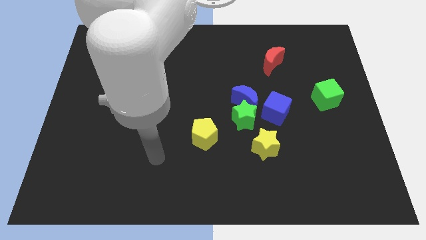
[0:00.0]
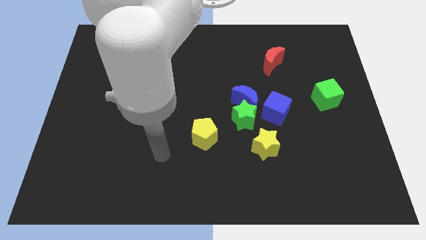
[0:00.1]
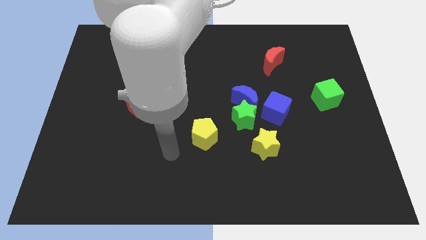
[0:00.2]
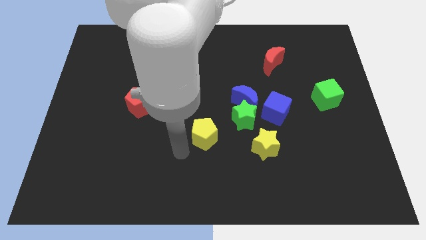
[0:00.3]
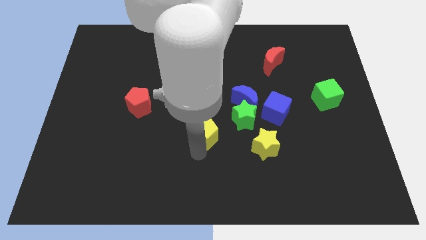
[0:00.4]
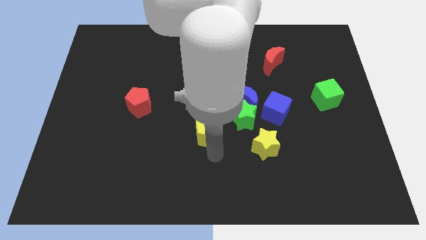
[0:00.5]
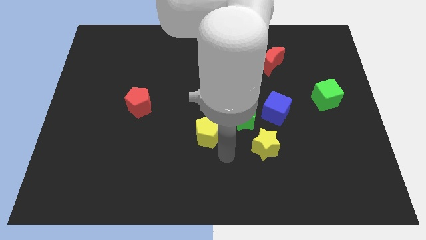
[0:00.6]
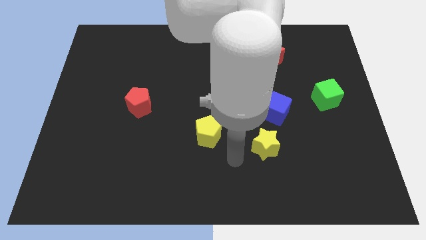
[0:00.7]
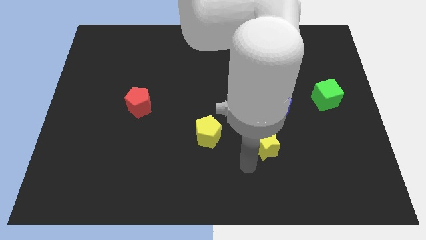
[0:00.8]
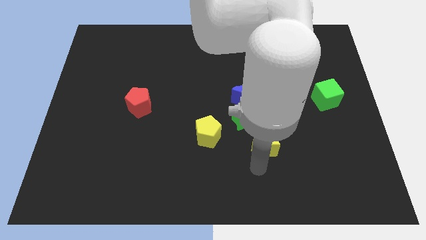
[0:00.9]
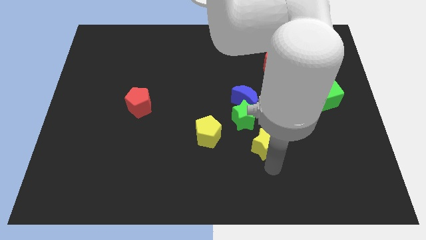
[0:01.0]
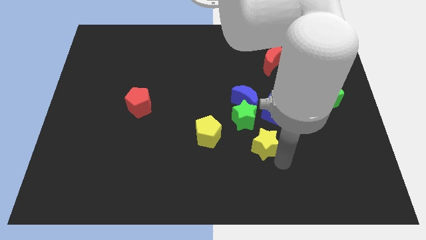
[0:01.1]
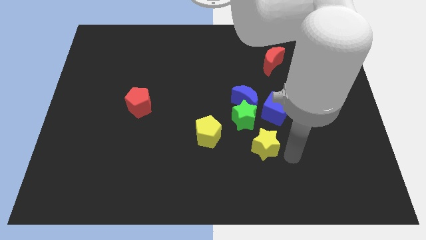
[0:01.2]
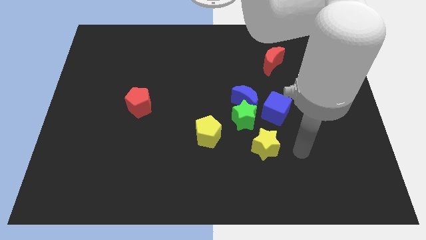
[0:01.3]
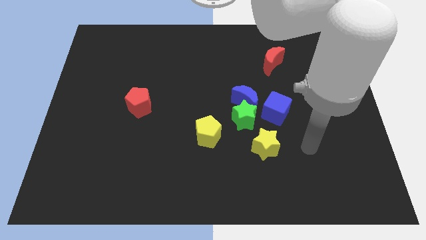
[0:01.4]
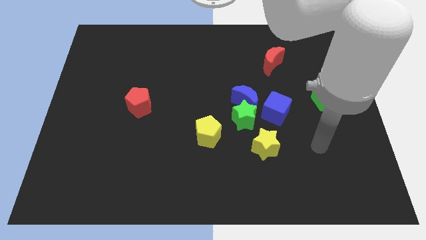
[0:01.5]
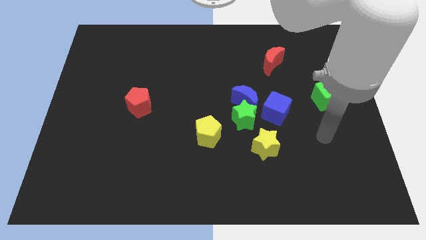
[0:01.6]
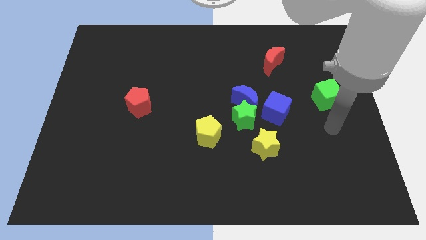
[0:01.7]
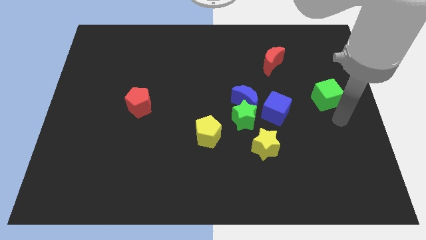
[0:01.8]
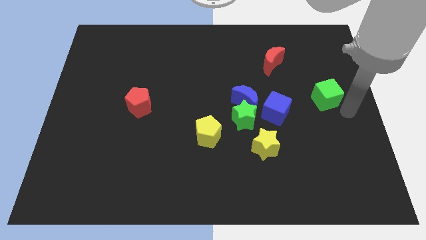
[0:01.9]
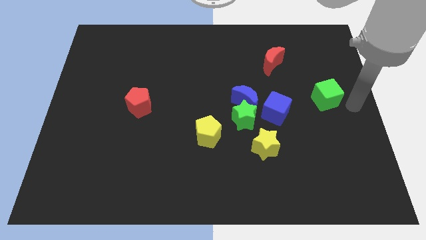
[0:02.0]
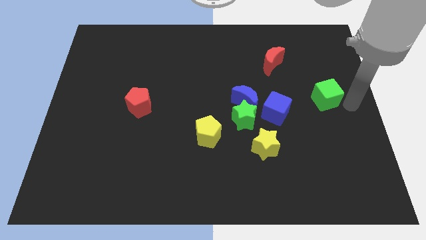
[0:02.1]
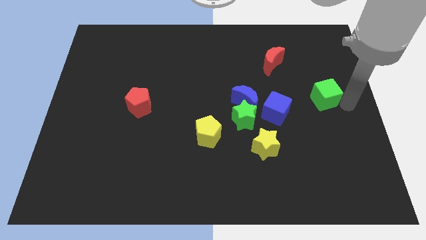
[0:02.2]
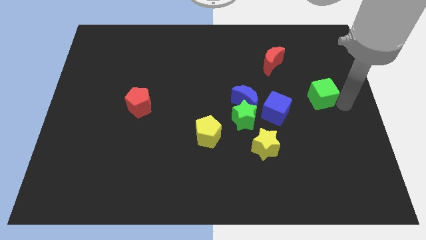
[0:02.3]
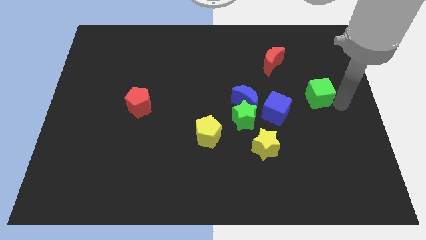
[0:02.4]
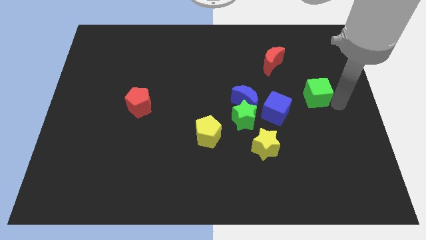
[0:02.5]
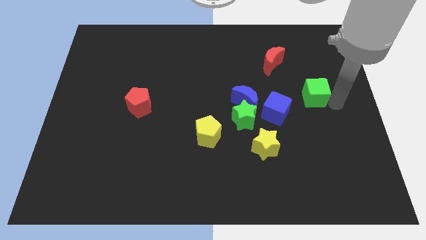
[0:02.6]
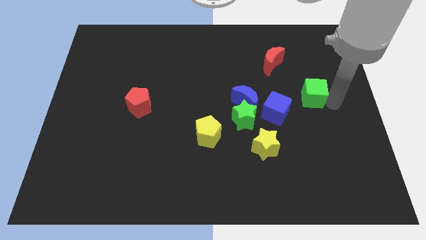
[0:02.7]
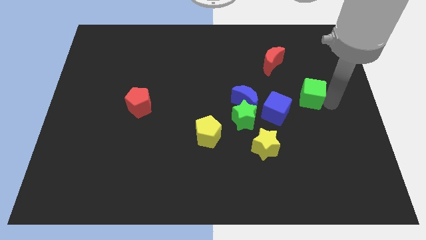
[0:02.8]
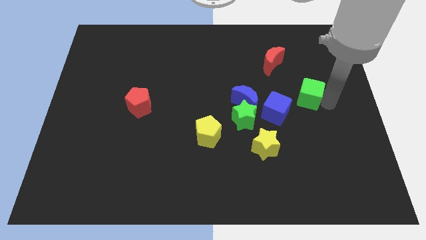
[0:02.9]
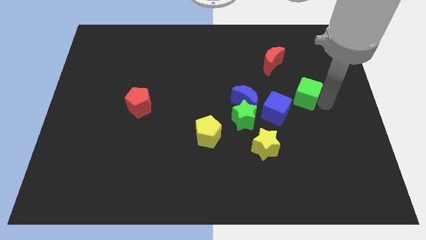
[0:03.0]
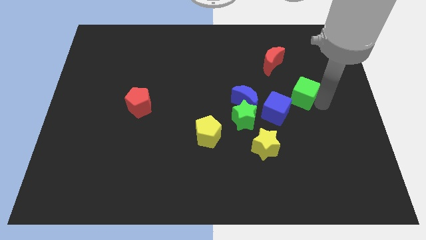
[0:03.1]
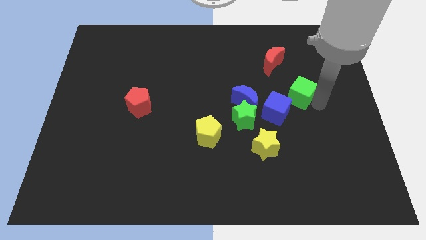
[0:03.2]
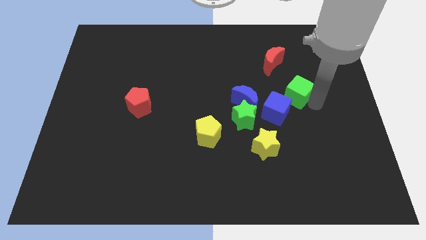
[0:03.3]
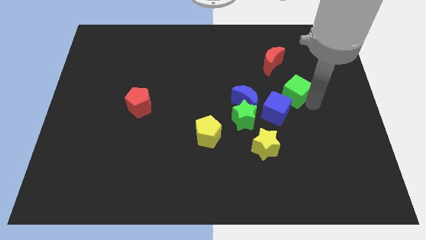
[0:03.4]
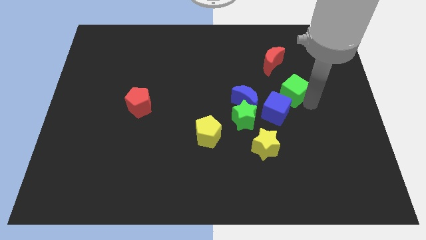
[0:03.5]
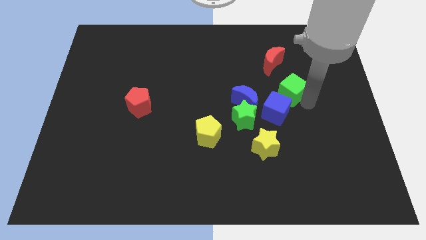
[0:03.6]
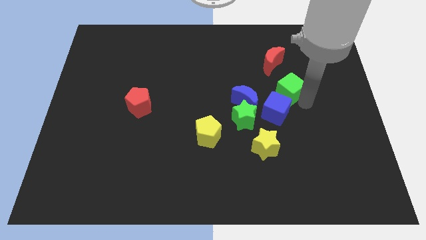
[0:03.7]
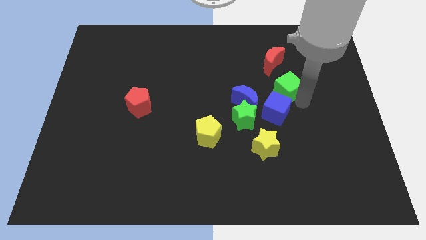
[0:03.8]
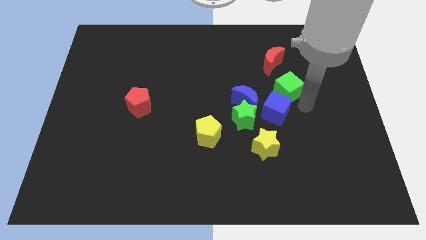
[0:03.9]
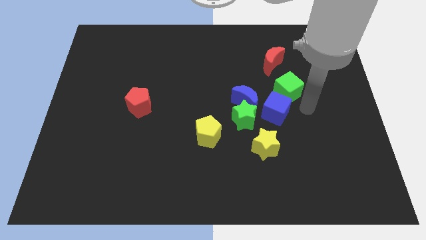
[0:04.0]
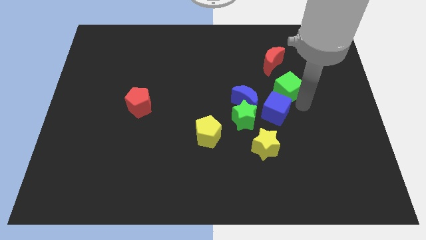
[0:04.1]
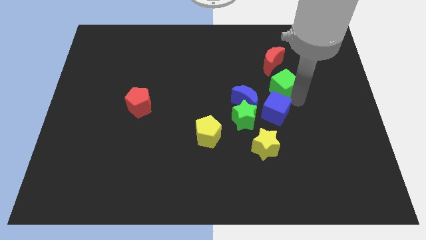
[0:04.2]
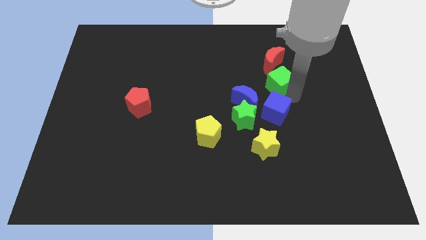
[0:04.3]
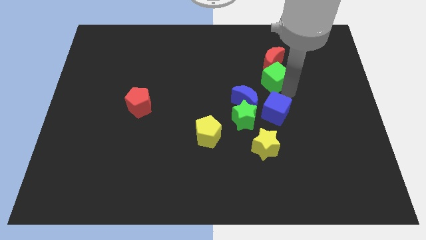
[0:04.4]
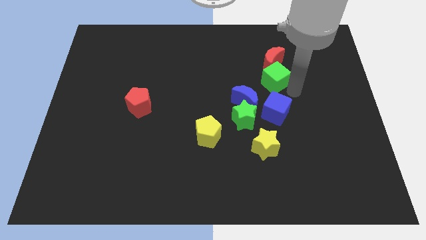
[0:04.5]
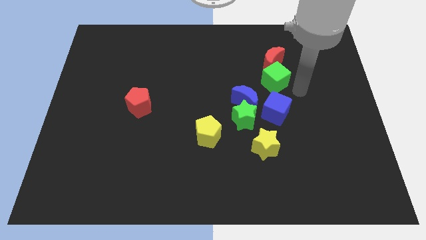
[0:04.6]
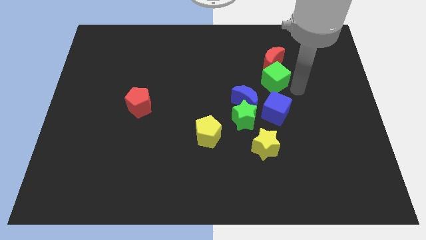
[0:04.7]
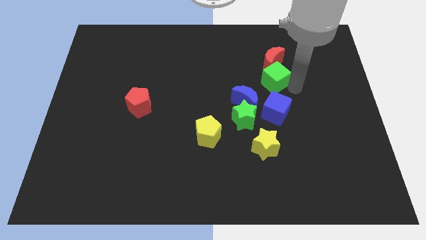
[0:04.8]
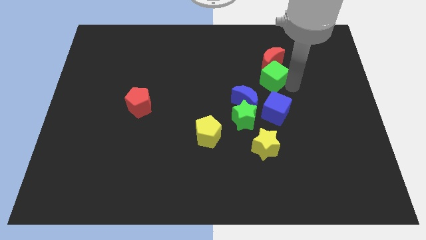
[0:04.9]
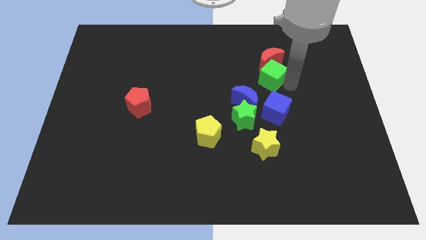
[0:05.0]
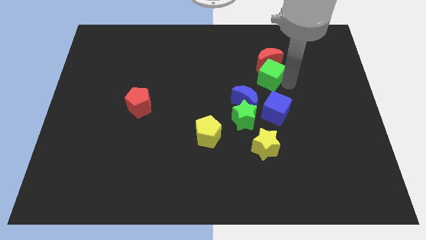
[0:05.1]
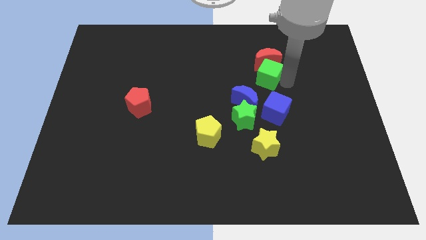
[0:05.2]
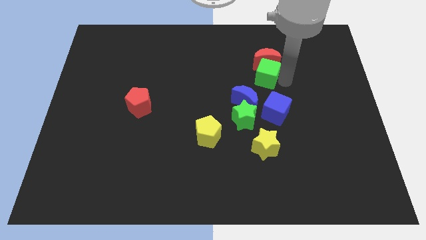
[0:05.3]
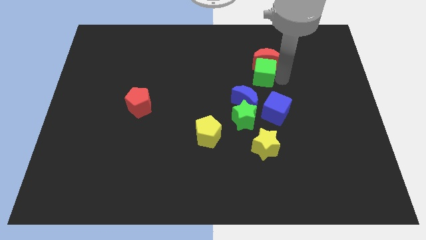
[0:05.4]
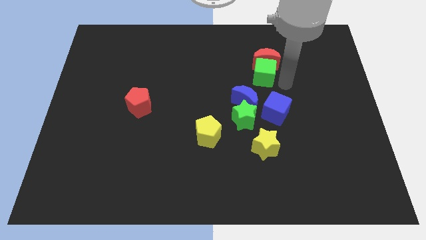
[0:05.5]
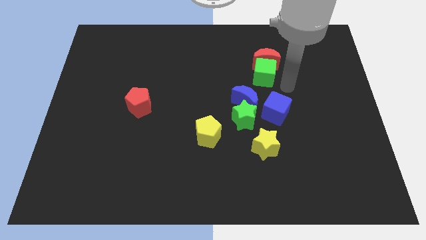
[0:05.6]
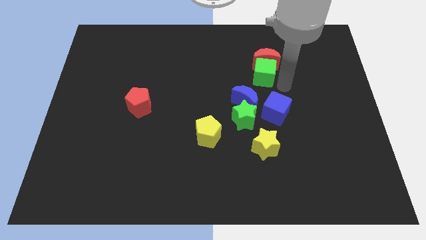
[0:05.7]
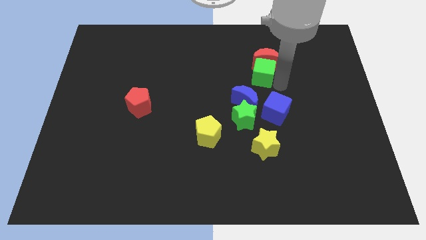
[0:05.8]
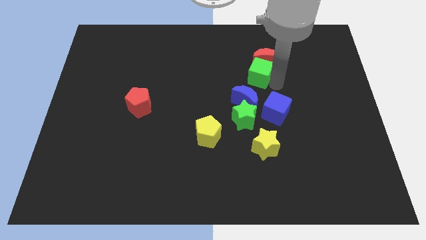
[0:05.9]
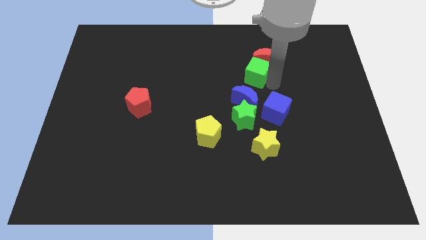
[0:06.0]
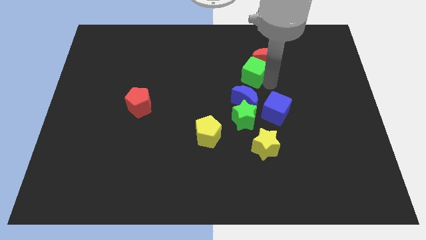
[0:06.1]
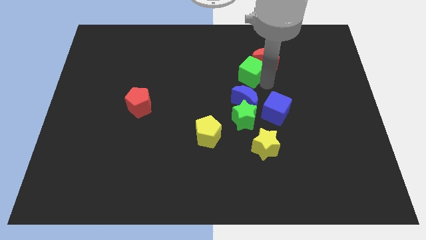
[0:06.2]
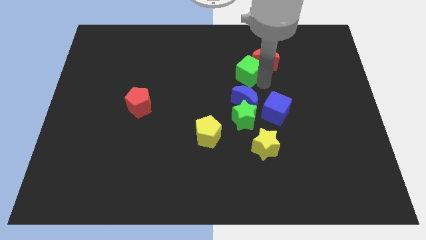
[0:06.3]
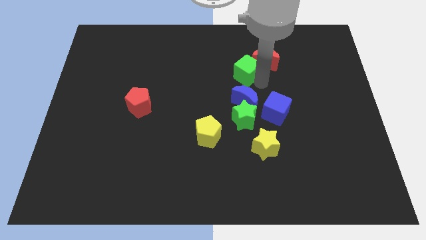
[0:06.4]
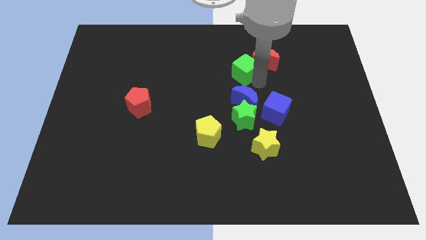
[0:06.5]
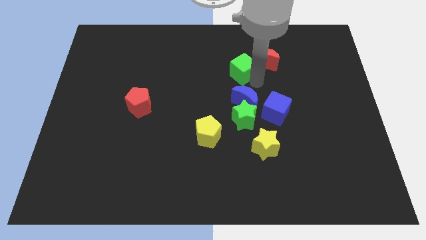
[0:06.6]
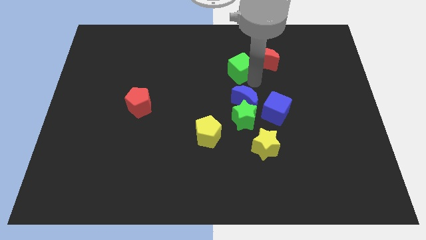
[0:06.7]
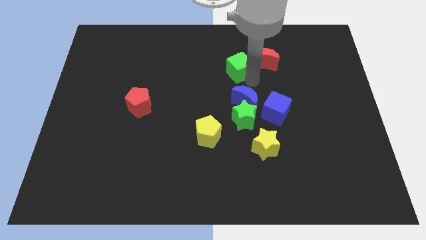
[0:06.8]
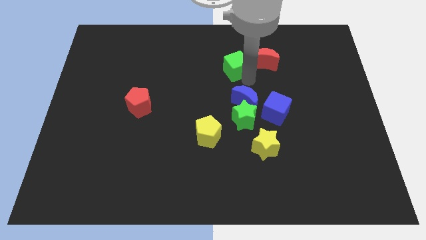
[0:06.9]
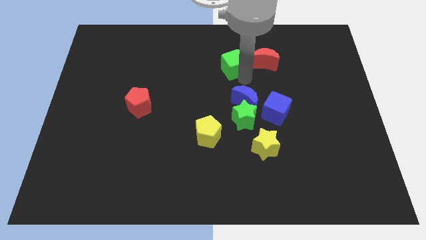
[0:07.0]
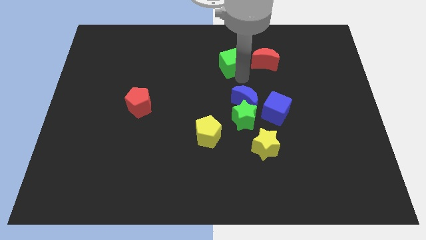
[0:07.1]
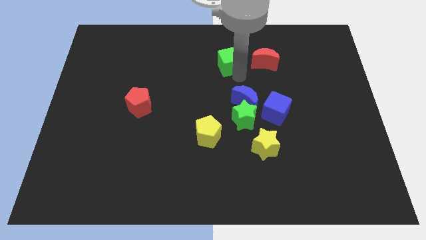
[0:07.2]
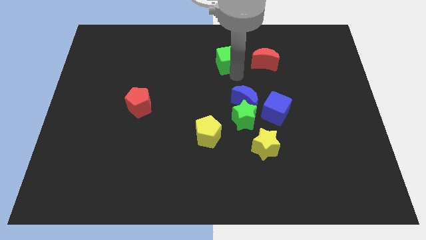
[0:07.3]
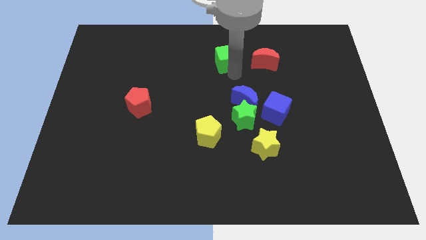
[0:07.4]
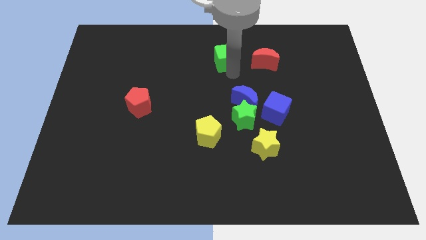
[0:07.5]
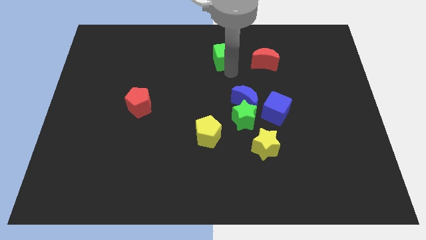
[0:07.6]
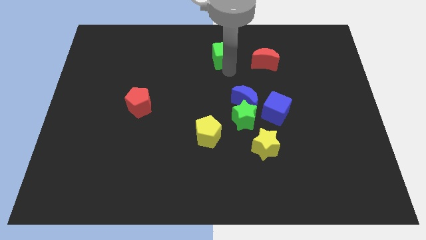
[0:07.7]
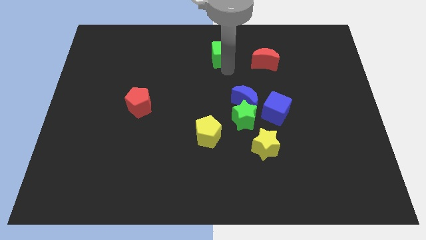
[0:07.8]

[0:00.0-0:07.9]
push the green cube to the top
